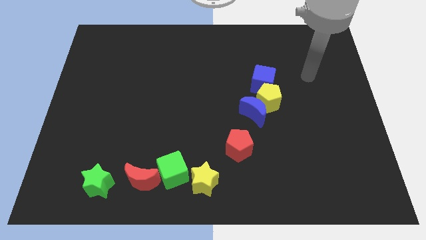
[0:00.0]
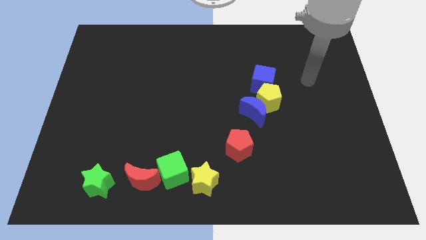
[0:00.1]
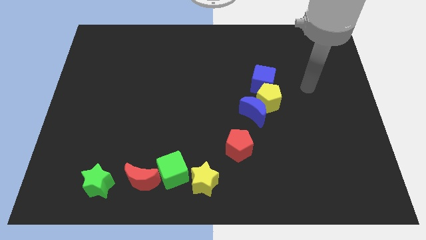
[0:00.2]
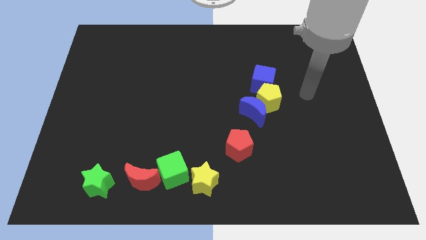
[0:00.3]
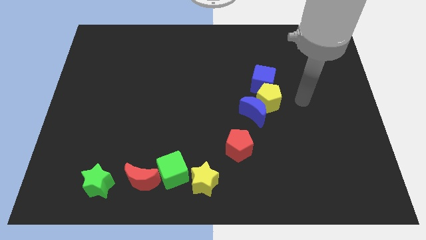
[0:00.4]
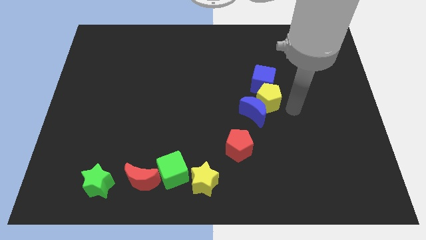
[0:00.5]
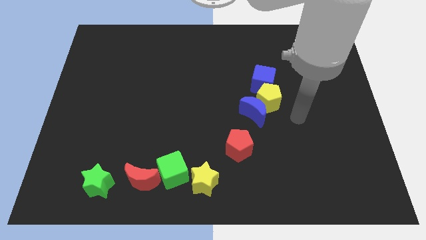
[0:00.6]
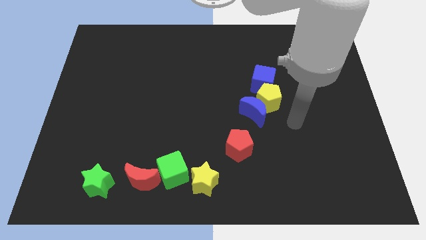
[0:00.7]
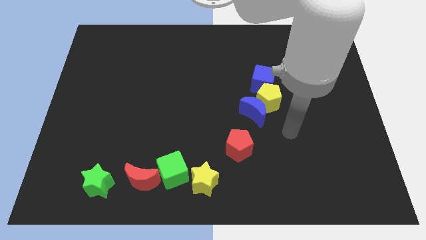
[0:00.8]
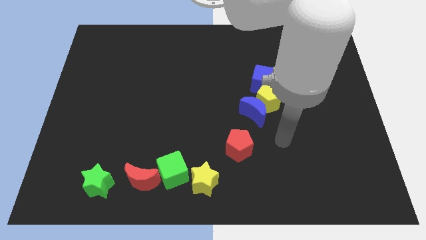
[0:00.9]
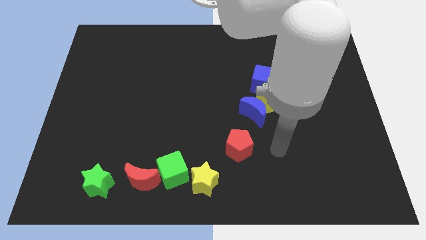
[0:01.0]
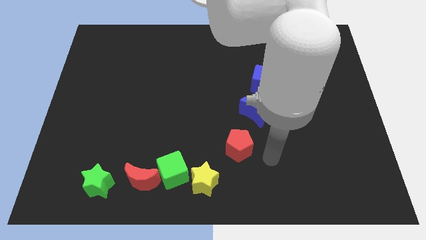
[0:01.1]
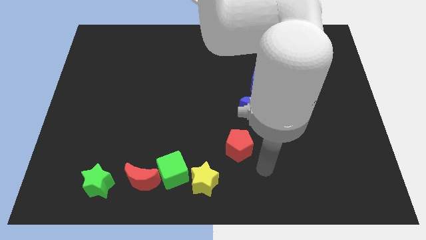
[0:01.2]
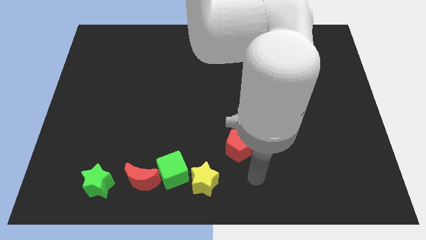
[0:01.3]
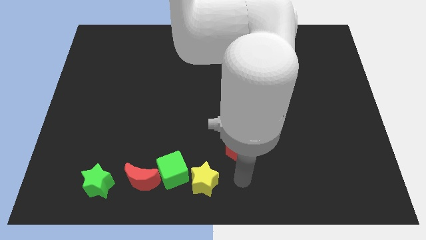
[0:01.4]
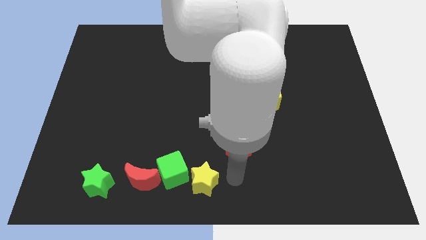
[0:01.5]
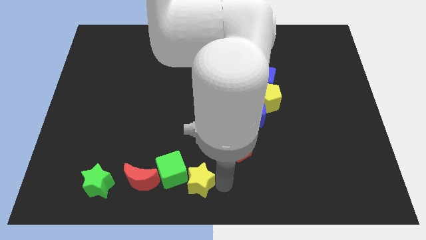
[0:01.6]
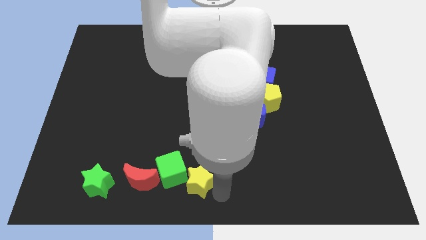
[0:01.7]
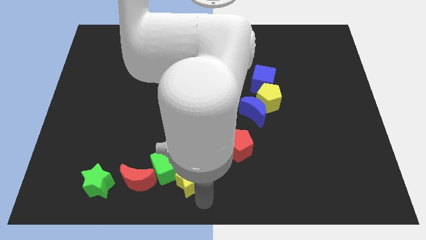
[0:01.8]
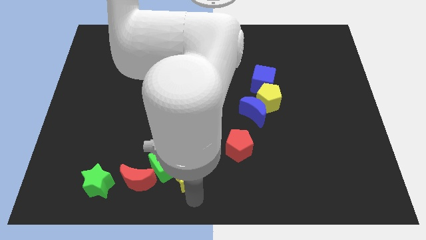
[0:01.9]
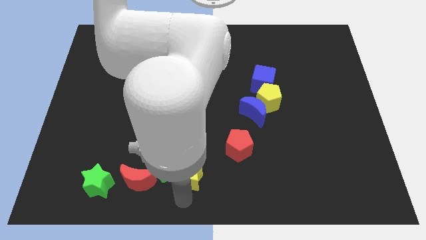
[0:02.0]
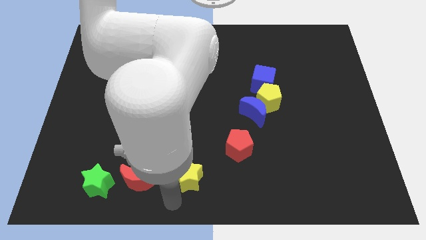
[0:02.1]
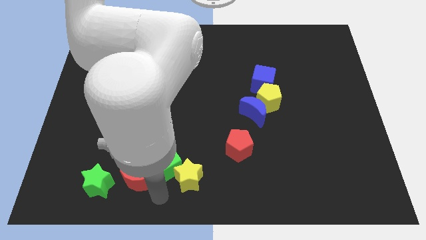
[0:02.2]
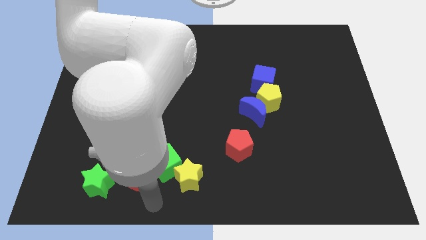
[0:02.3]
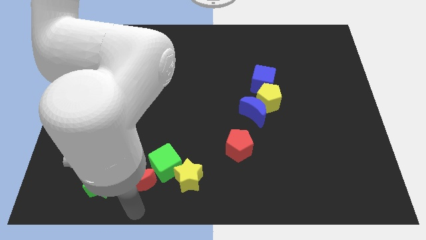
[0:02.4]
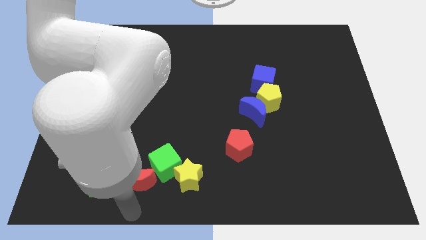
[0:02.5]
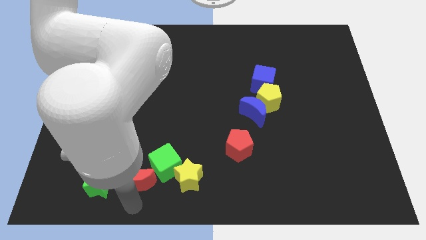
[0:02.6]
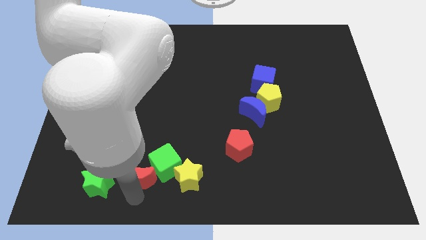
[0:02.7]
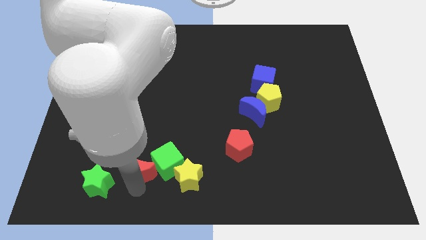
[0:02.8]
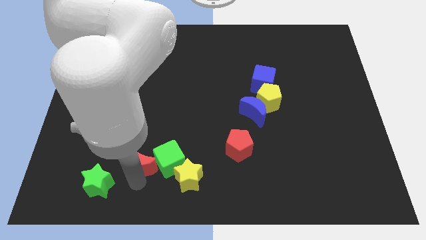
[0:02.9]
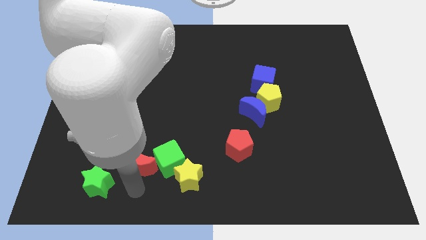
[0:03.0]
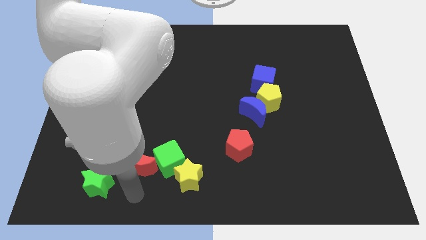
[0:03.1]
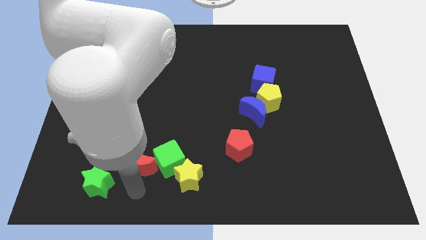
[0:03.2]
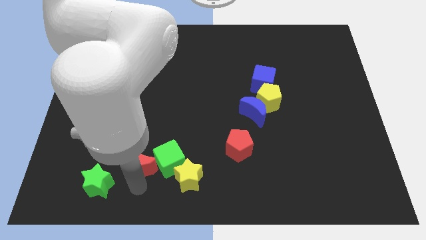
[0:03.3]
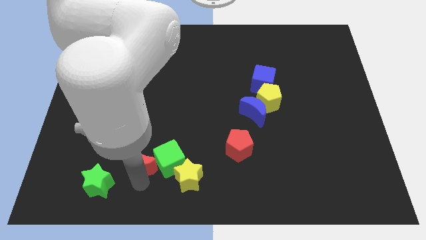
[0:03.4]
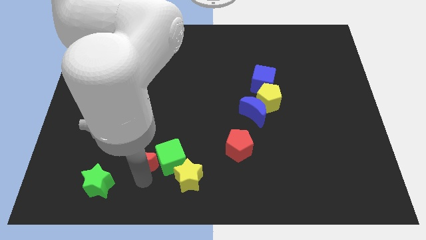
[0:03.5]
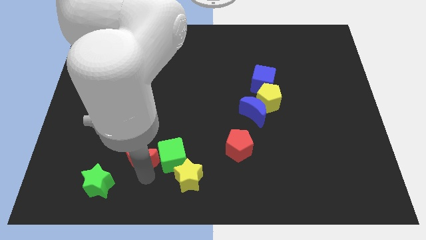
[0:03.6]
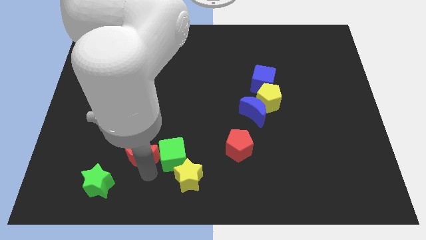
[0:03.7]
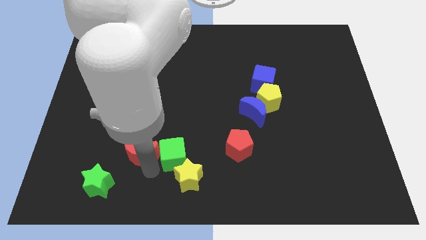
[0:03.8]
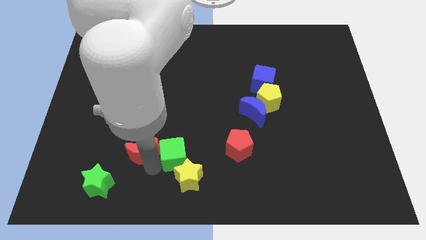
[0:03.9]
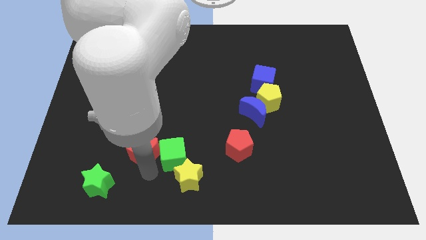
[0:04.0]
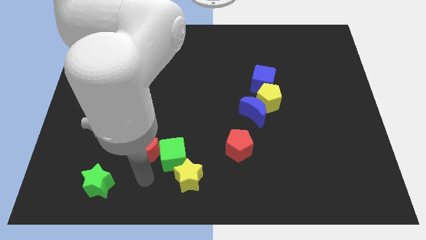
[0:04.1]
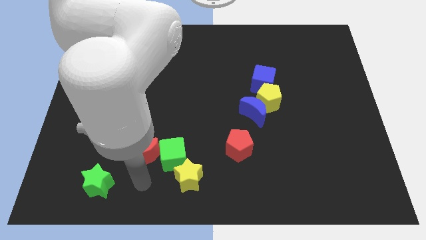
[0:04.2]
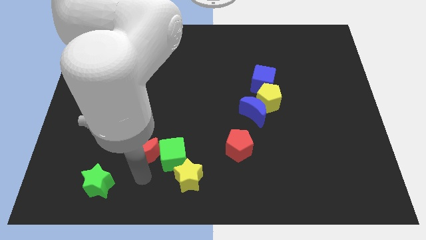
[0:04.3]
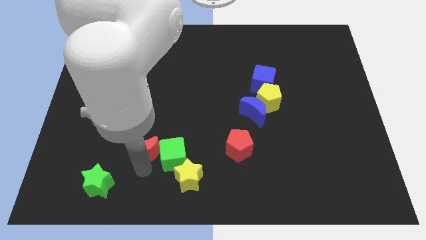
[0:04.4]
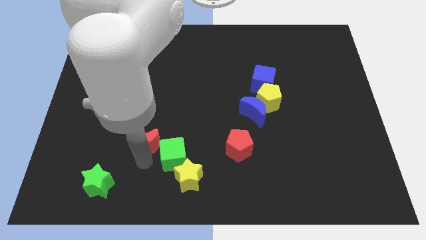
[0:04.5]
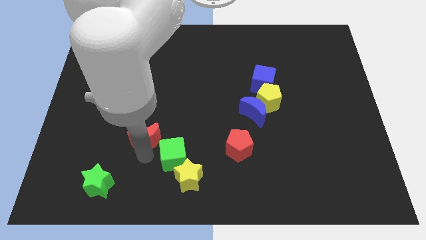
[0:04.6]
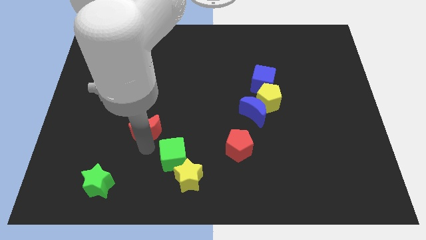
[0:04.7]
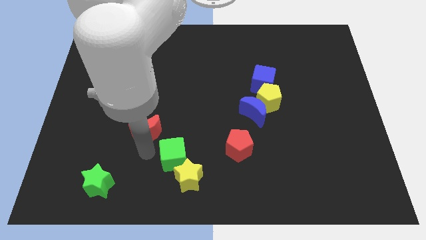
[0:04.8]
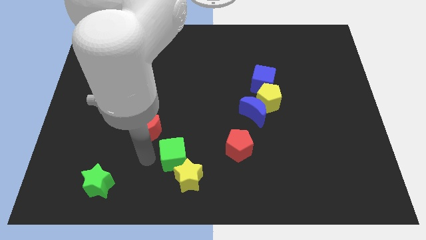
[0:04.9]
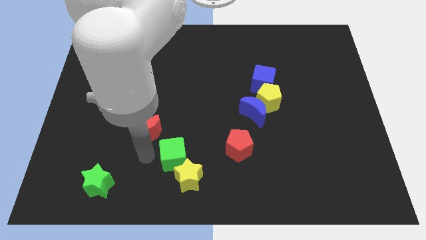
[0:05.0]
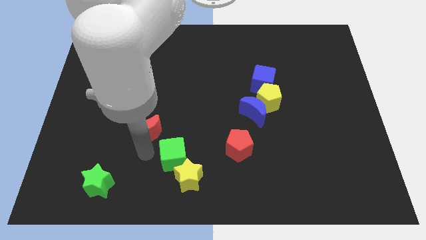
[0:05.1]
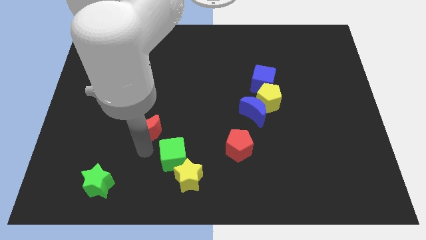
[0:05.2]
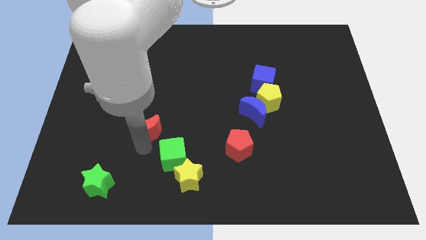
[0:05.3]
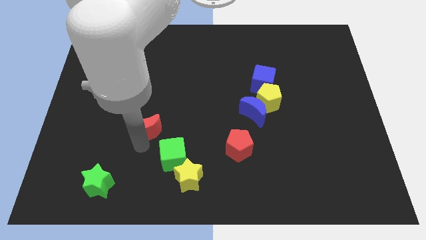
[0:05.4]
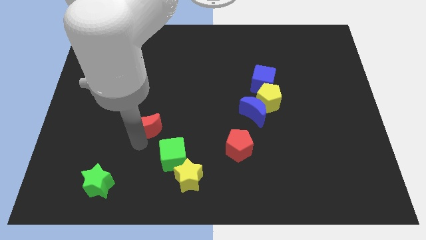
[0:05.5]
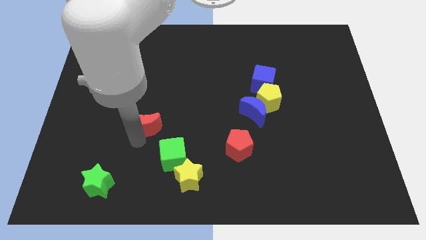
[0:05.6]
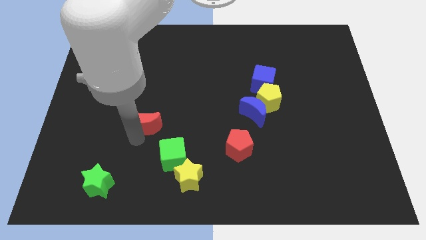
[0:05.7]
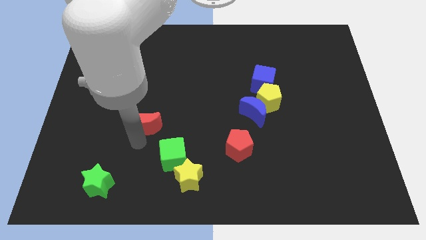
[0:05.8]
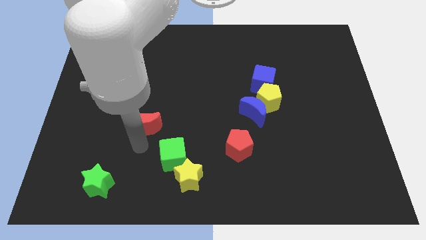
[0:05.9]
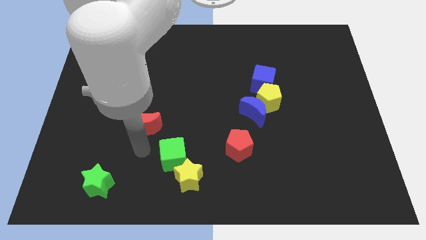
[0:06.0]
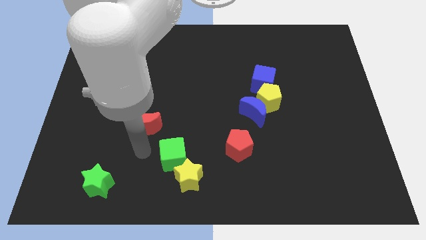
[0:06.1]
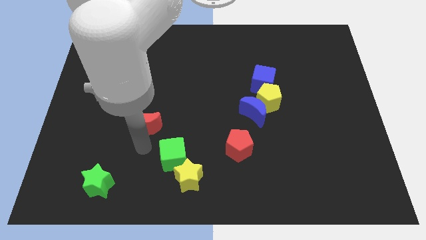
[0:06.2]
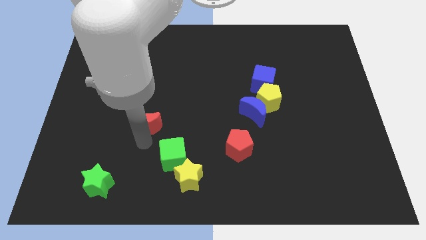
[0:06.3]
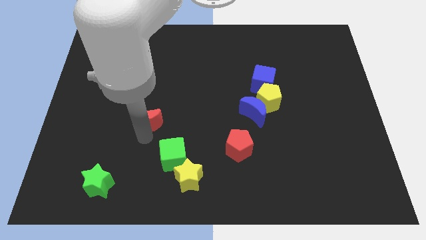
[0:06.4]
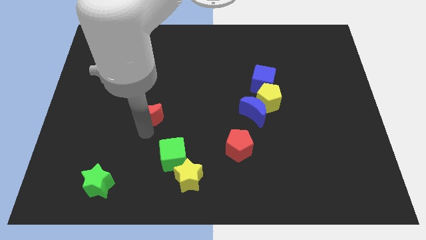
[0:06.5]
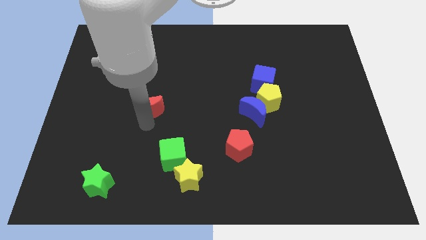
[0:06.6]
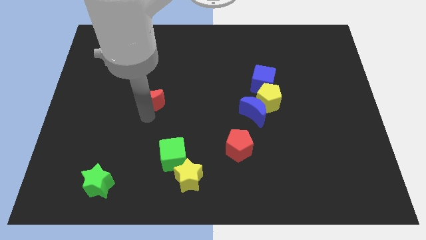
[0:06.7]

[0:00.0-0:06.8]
push the red moon upwards

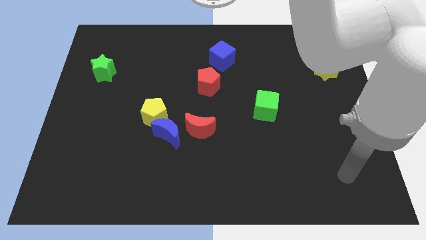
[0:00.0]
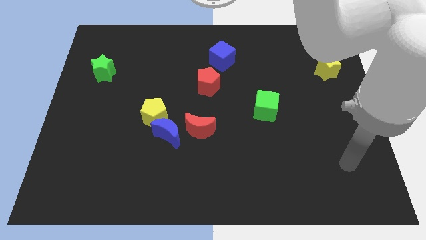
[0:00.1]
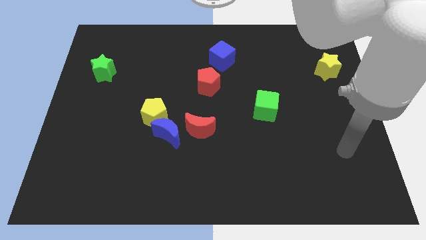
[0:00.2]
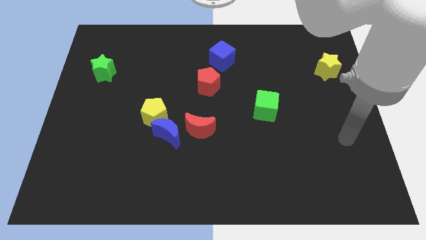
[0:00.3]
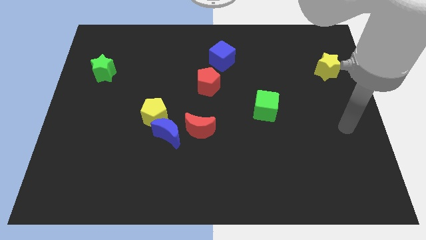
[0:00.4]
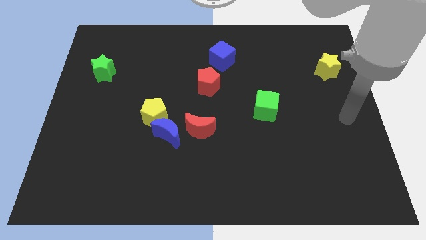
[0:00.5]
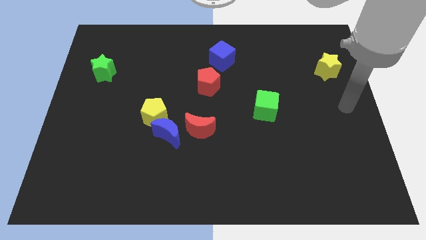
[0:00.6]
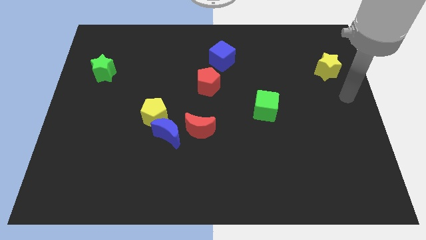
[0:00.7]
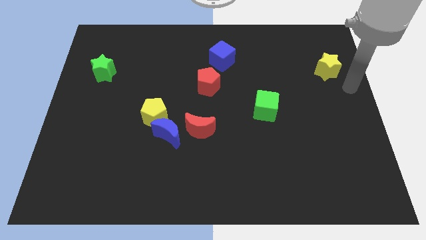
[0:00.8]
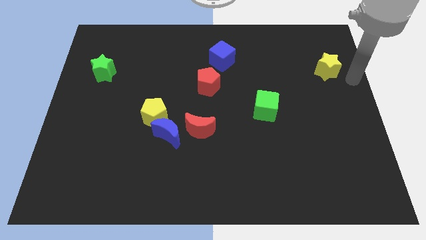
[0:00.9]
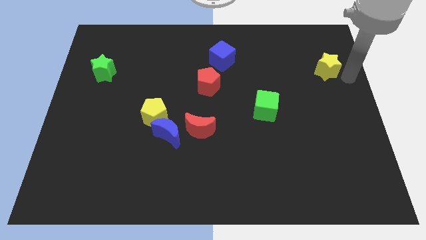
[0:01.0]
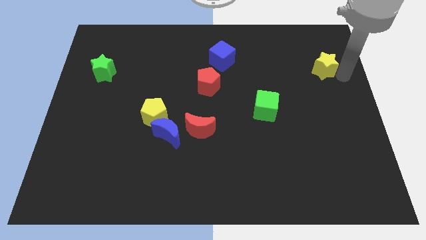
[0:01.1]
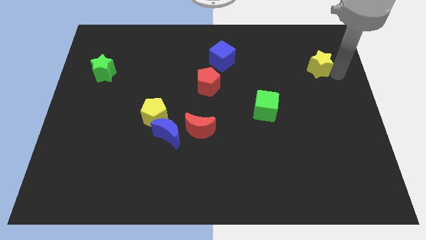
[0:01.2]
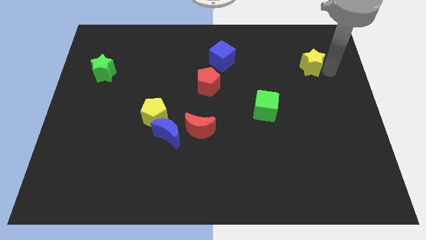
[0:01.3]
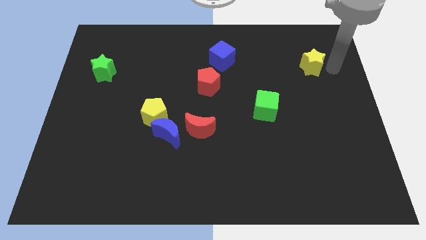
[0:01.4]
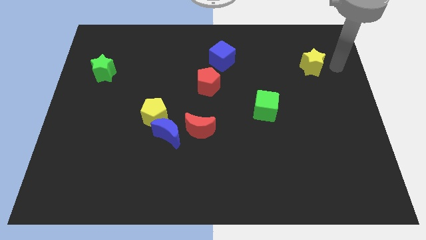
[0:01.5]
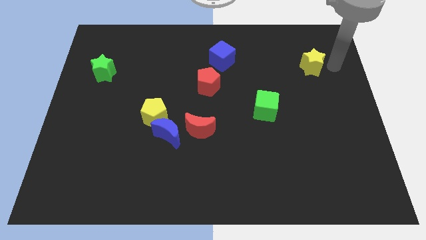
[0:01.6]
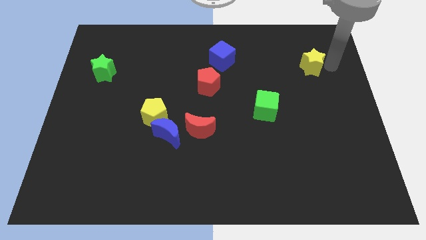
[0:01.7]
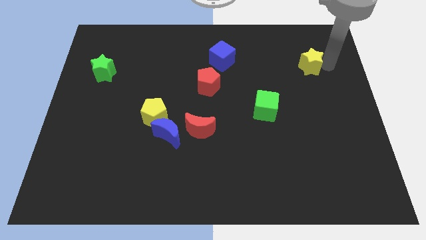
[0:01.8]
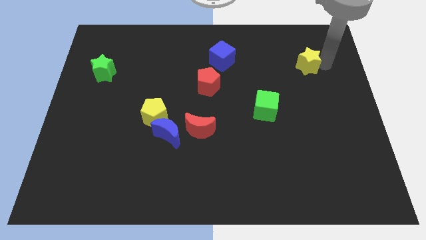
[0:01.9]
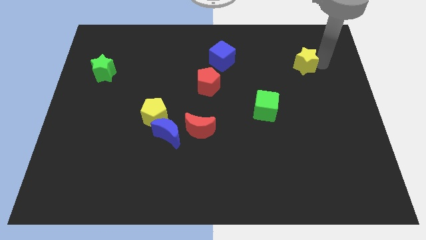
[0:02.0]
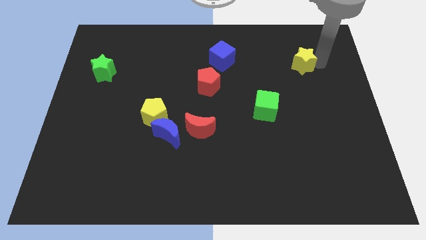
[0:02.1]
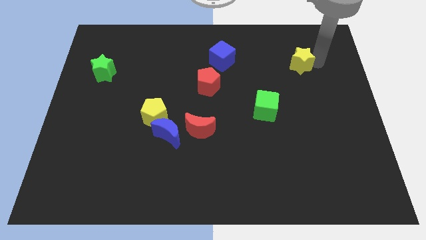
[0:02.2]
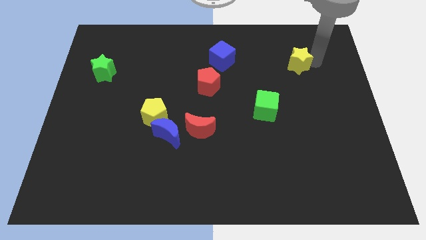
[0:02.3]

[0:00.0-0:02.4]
slide the yellow star left slightly
